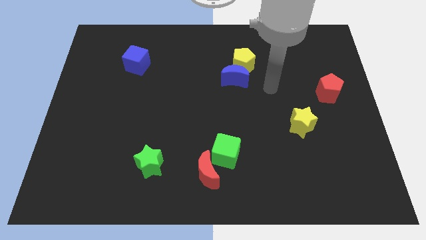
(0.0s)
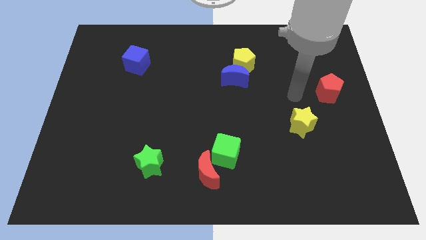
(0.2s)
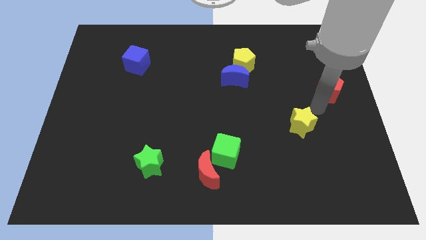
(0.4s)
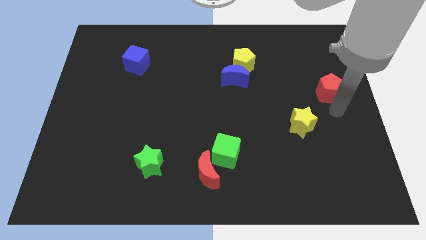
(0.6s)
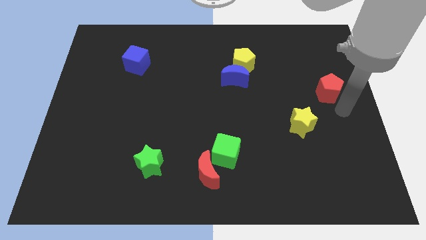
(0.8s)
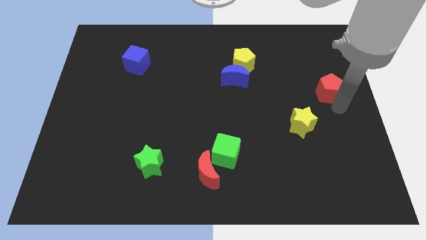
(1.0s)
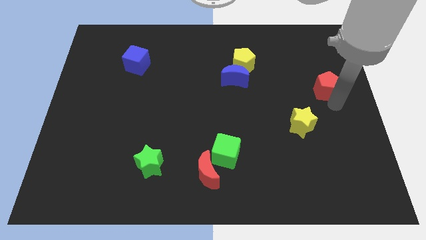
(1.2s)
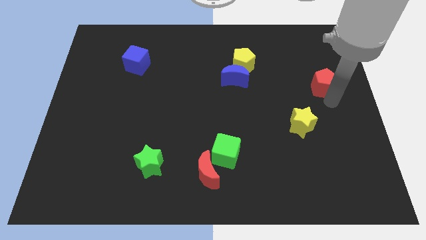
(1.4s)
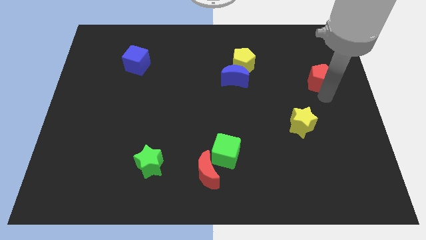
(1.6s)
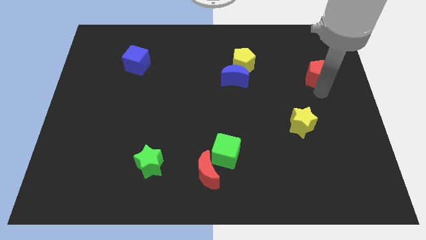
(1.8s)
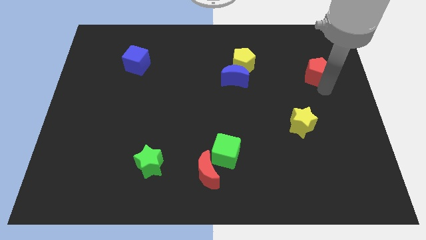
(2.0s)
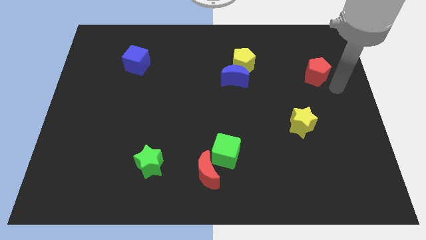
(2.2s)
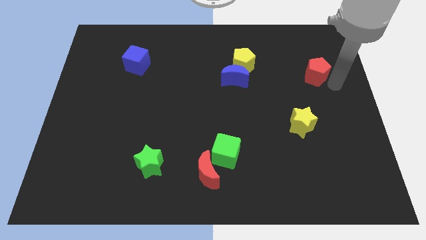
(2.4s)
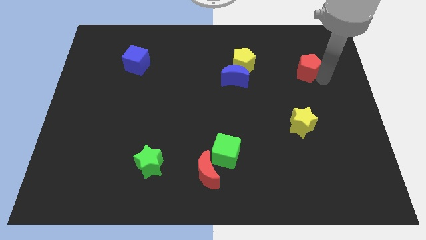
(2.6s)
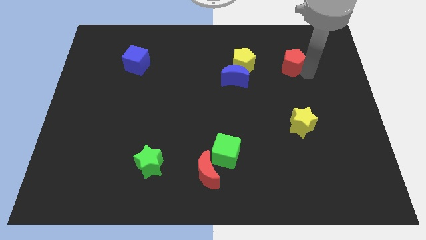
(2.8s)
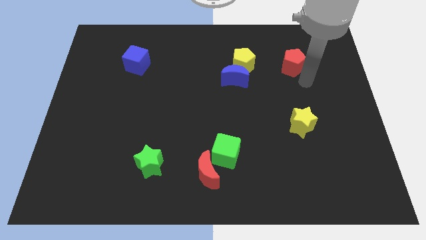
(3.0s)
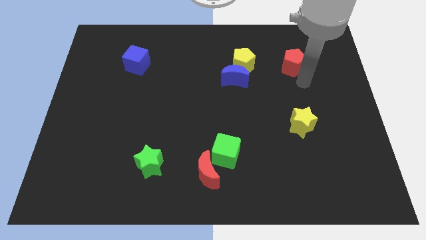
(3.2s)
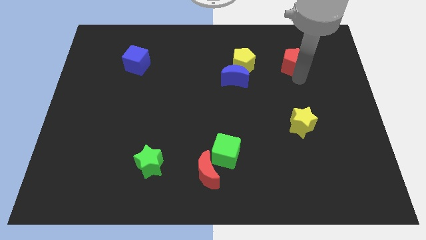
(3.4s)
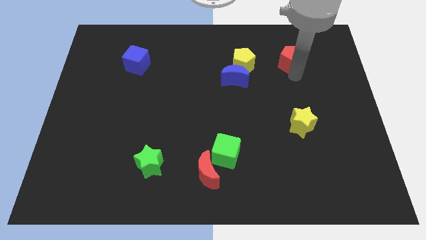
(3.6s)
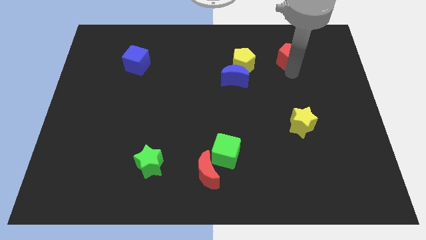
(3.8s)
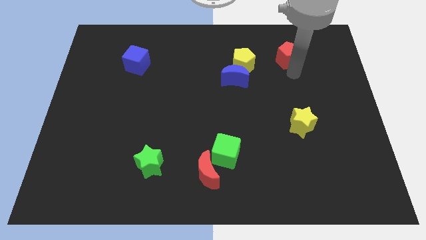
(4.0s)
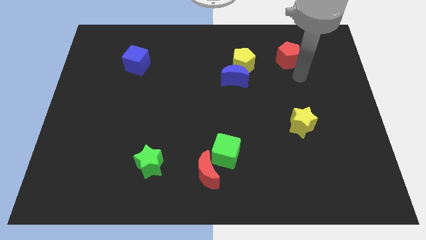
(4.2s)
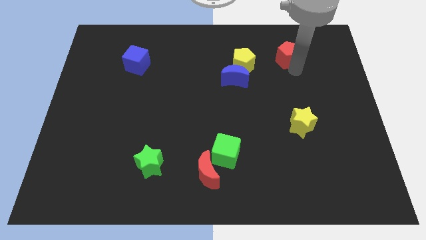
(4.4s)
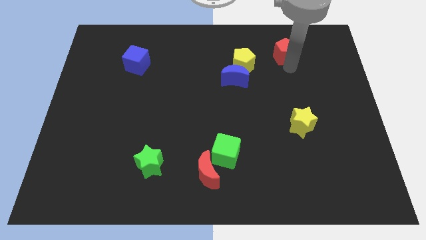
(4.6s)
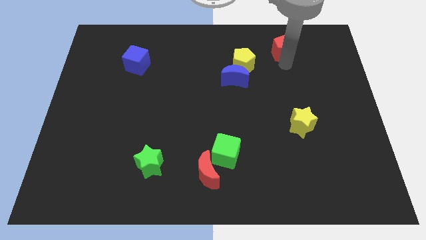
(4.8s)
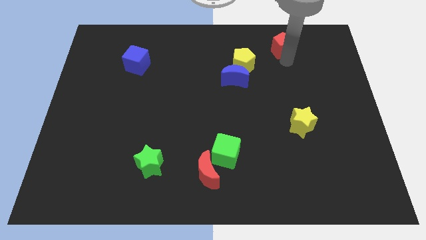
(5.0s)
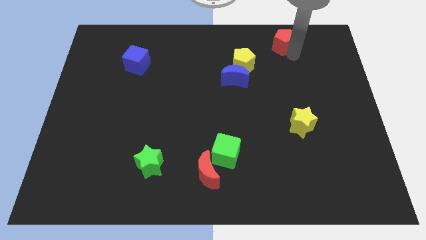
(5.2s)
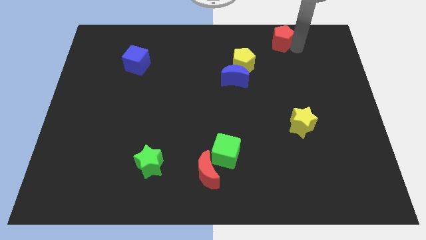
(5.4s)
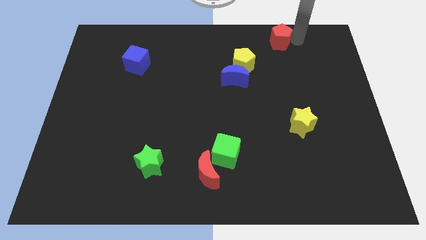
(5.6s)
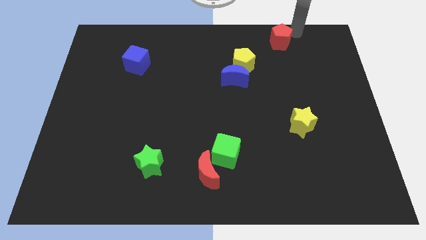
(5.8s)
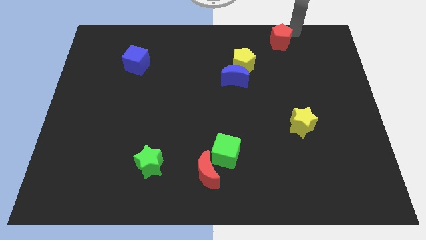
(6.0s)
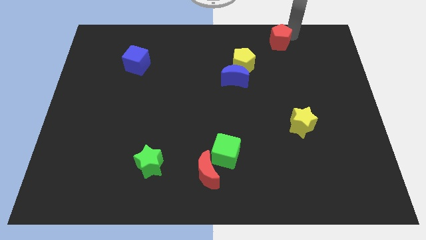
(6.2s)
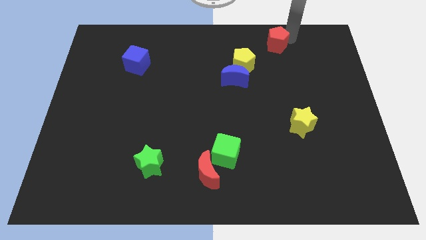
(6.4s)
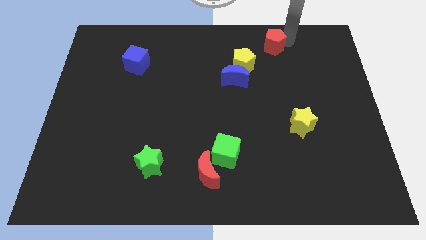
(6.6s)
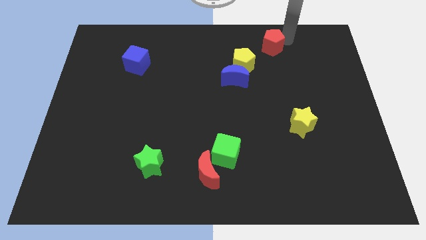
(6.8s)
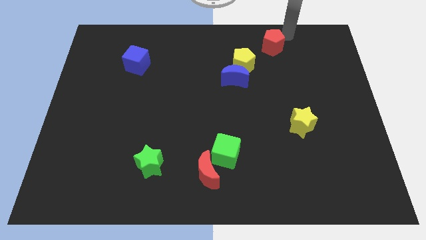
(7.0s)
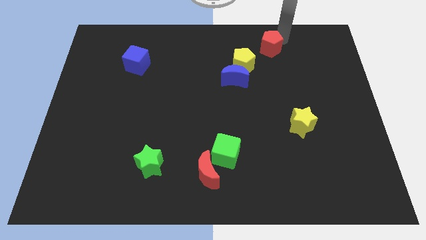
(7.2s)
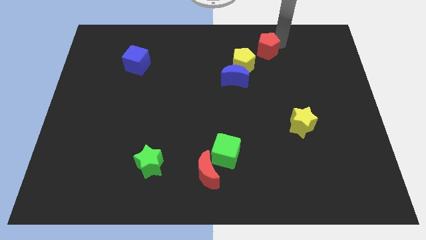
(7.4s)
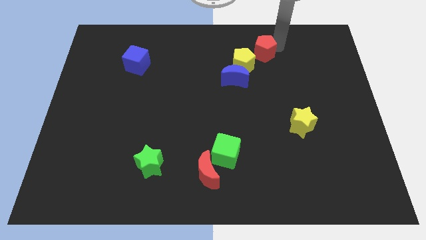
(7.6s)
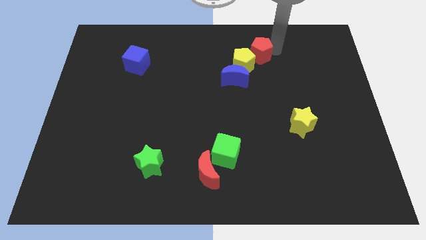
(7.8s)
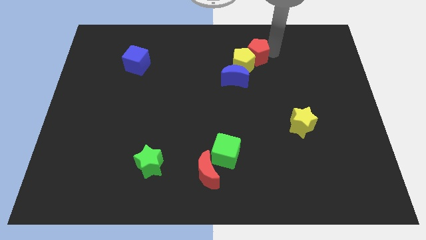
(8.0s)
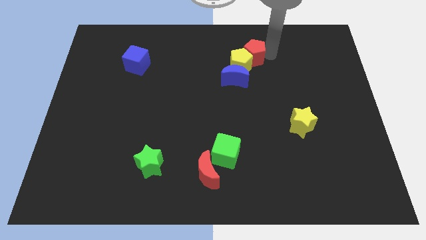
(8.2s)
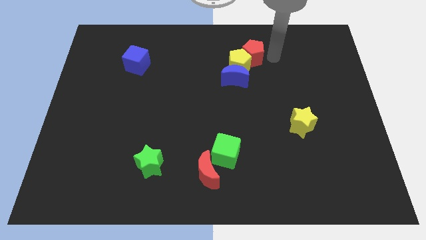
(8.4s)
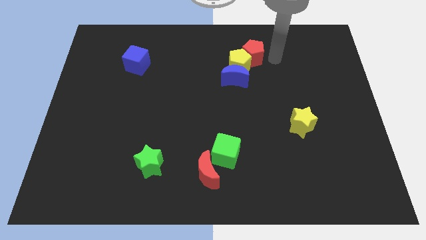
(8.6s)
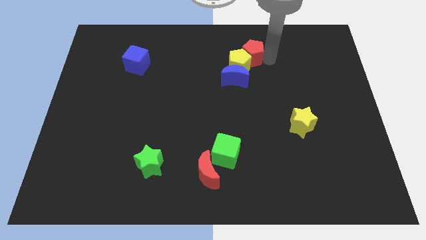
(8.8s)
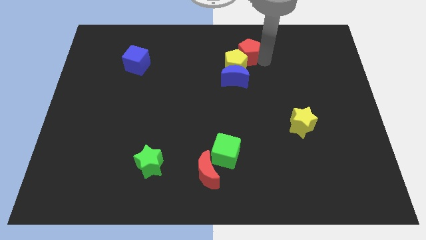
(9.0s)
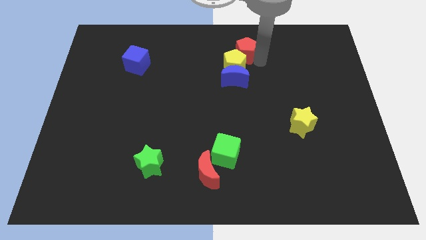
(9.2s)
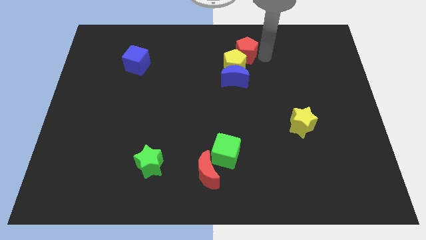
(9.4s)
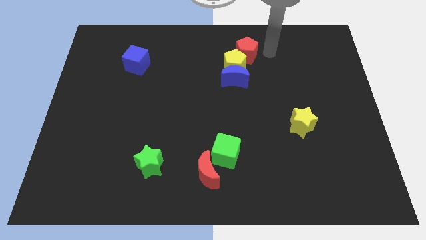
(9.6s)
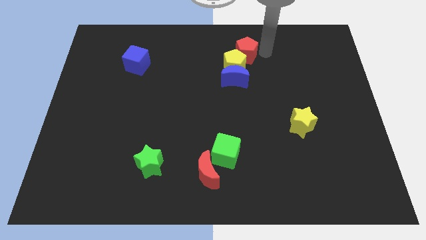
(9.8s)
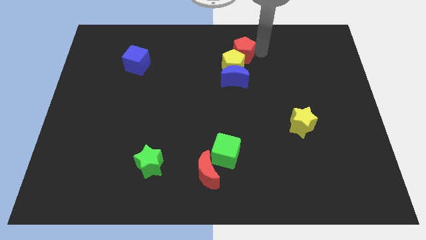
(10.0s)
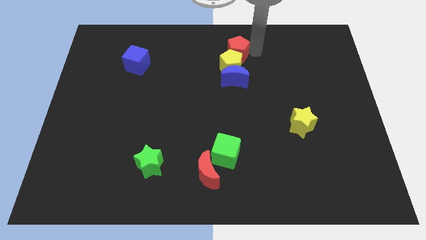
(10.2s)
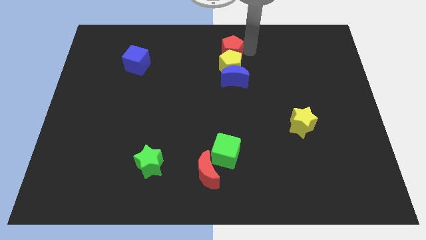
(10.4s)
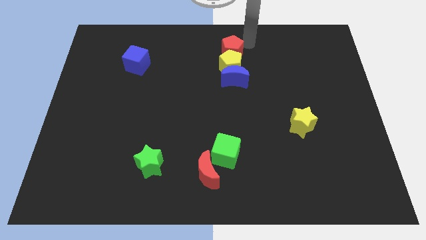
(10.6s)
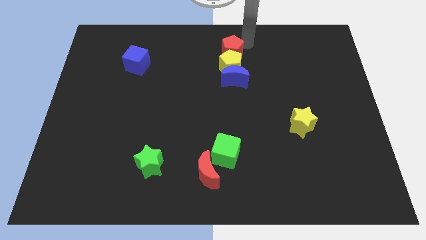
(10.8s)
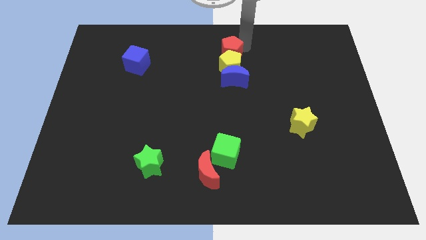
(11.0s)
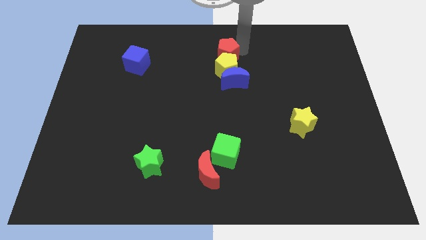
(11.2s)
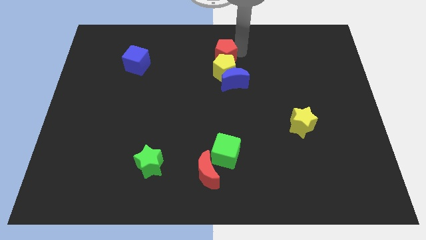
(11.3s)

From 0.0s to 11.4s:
slide the red pentagon to the top left side of the blue moon

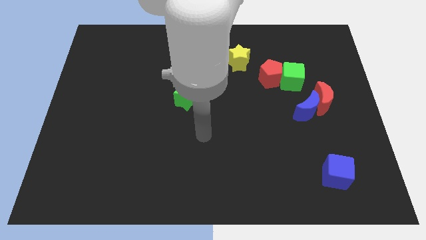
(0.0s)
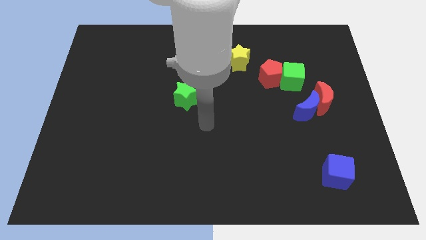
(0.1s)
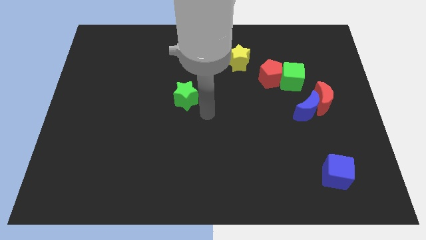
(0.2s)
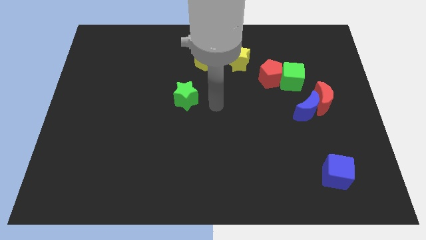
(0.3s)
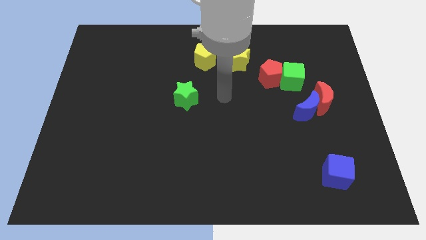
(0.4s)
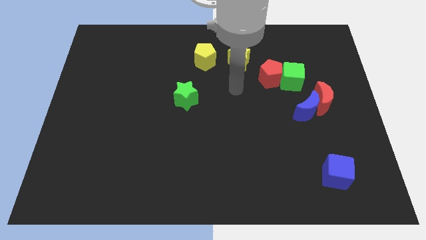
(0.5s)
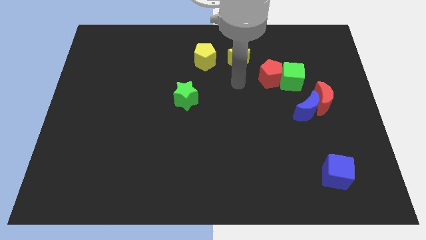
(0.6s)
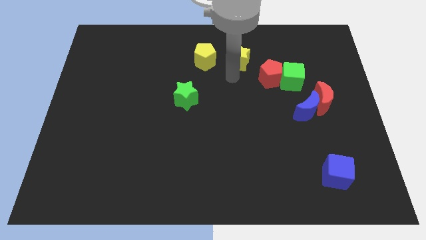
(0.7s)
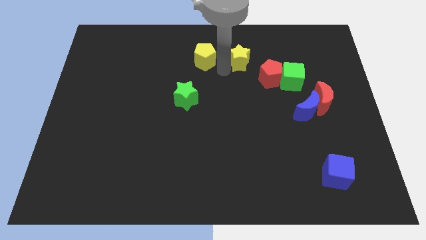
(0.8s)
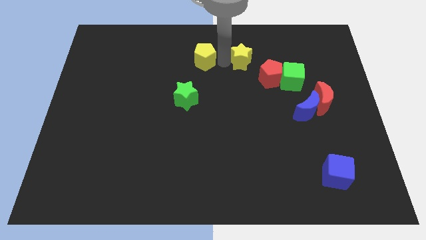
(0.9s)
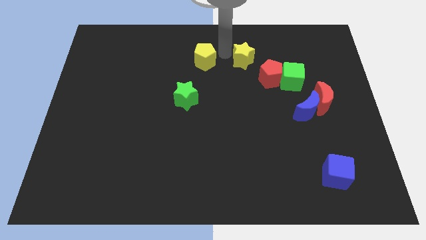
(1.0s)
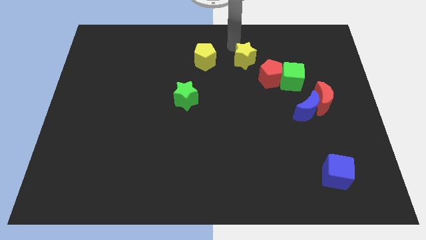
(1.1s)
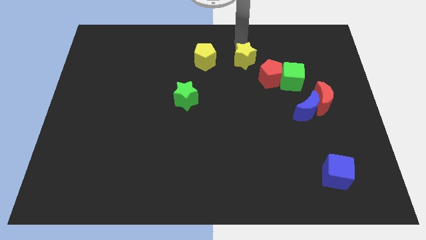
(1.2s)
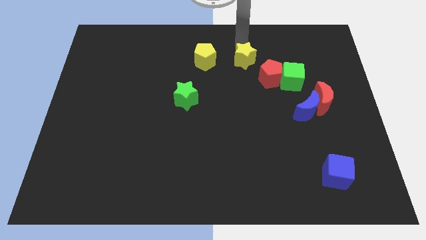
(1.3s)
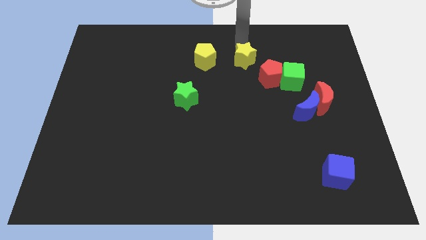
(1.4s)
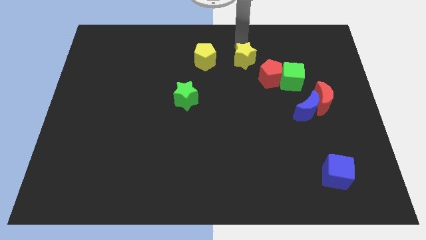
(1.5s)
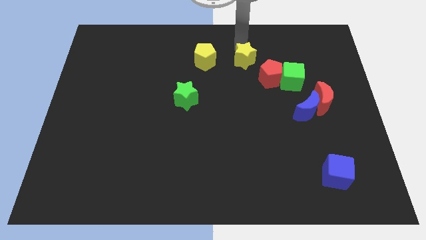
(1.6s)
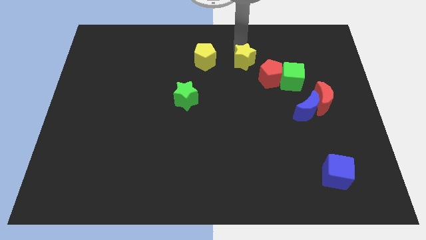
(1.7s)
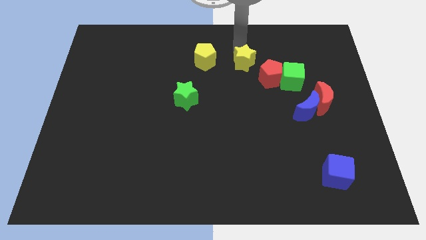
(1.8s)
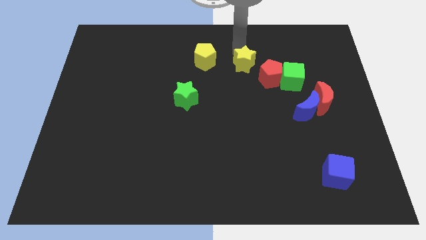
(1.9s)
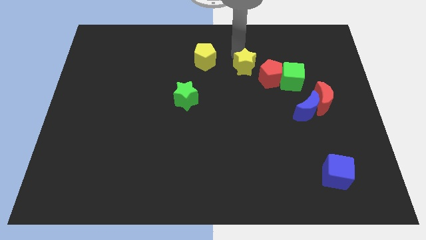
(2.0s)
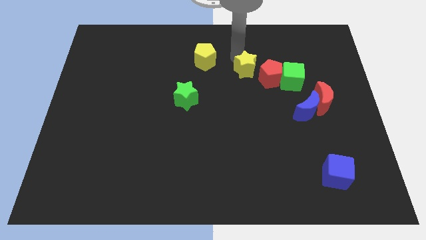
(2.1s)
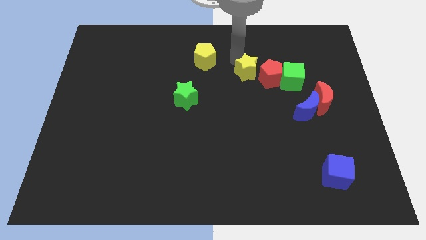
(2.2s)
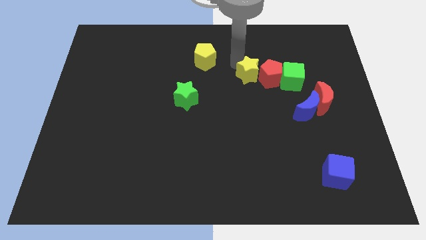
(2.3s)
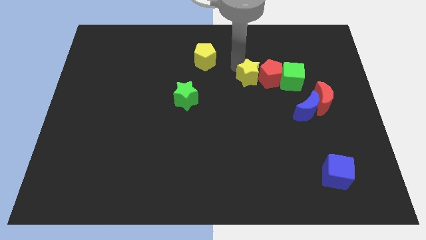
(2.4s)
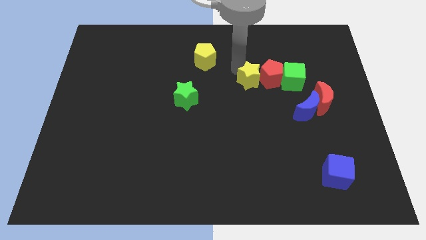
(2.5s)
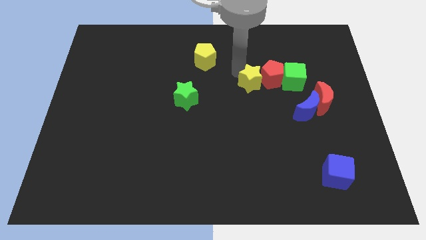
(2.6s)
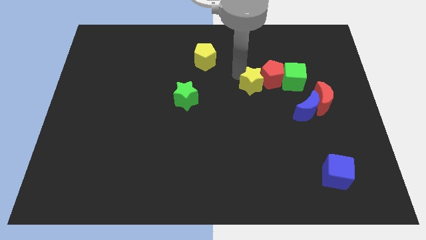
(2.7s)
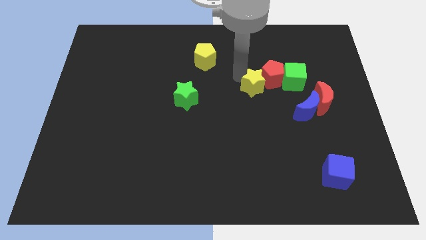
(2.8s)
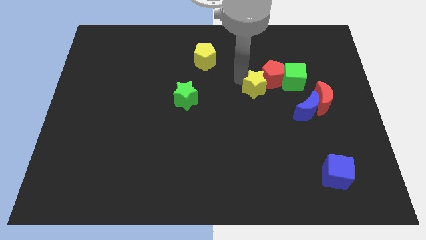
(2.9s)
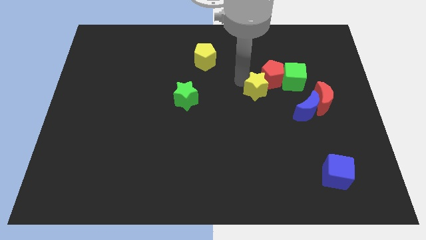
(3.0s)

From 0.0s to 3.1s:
move the yellow star to the bottom left side of the green cube
